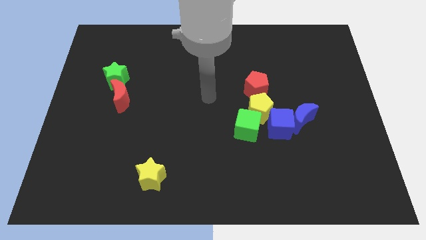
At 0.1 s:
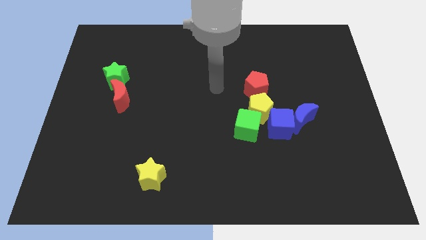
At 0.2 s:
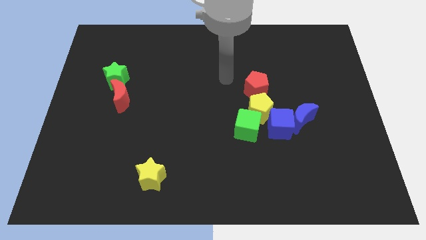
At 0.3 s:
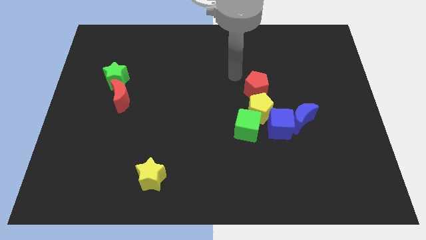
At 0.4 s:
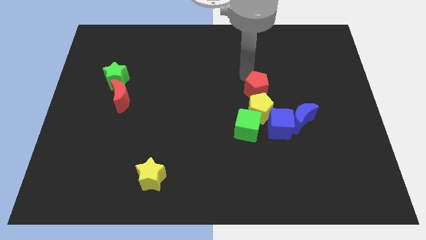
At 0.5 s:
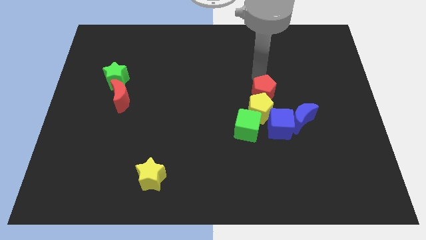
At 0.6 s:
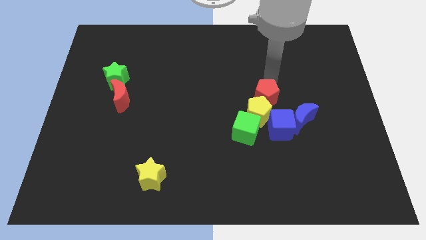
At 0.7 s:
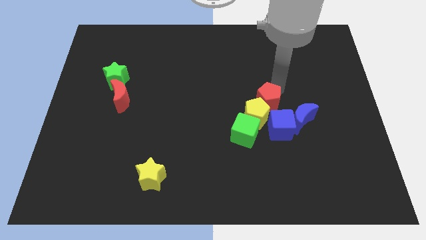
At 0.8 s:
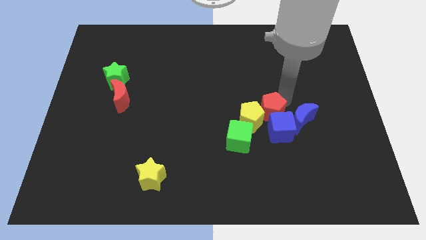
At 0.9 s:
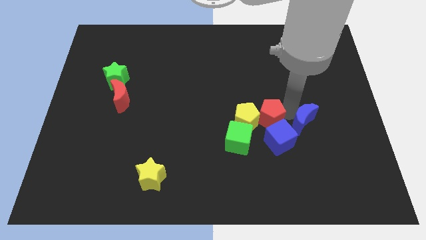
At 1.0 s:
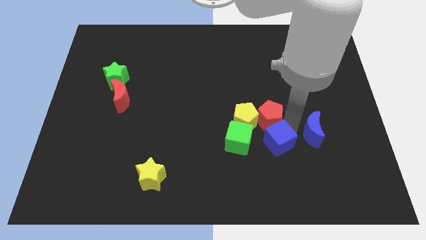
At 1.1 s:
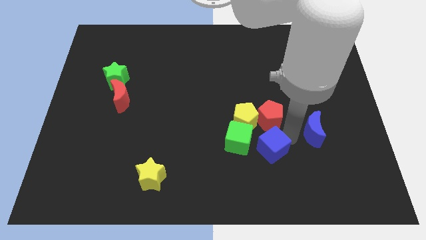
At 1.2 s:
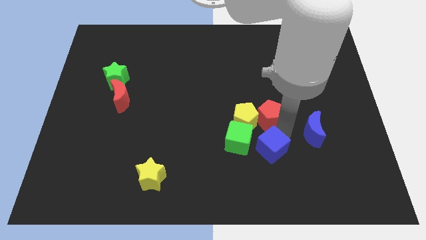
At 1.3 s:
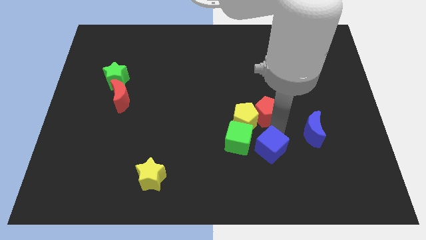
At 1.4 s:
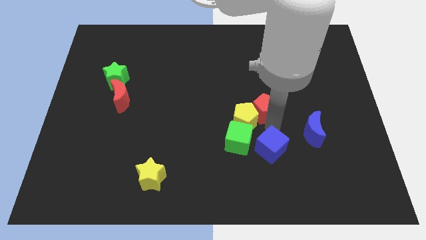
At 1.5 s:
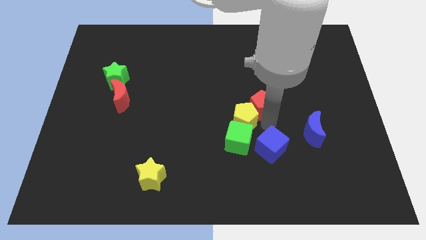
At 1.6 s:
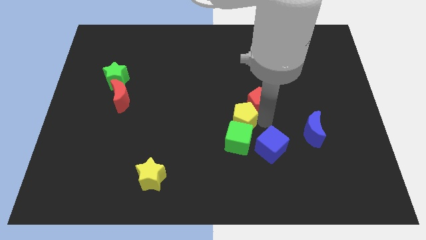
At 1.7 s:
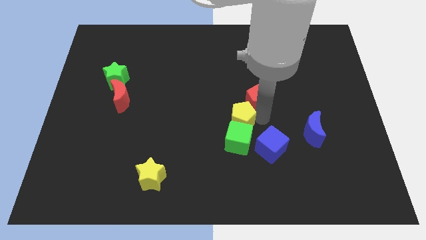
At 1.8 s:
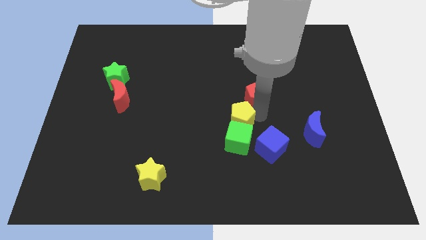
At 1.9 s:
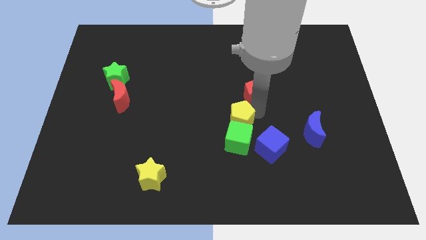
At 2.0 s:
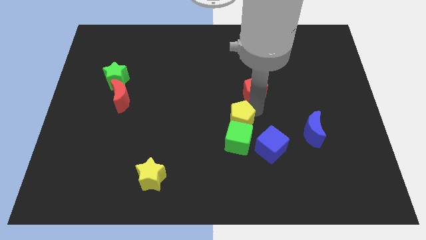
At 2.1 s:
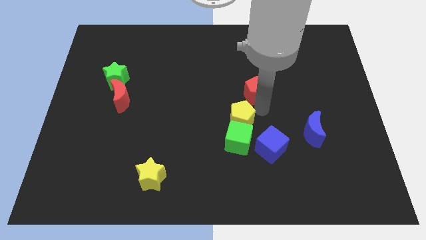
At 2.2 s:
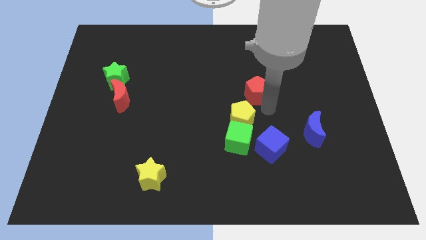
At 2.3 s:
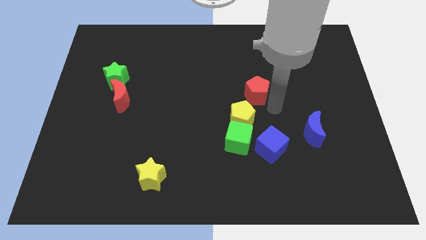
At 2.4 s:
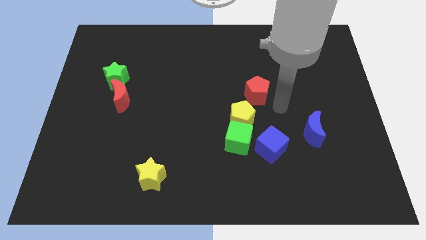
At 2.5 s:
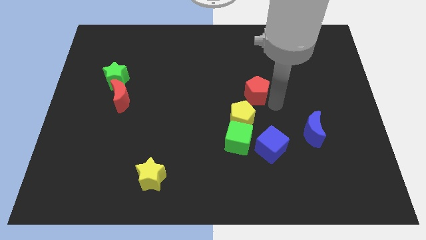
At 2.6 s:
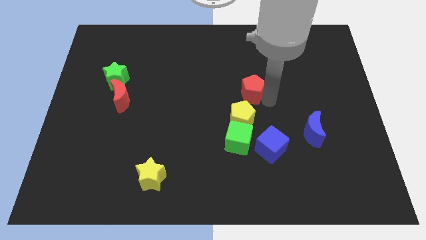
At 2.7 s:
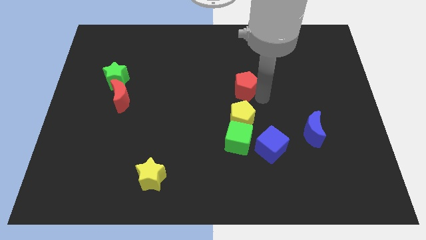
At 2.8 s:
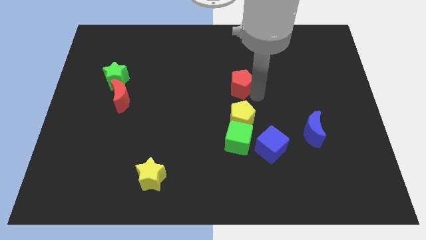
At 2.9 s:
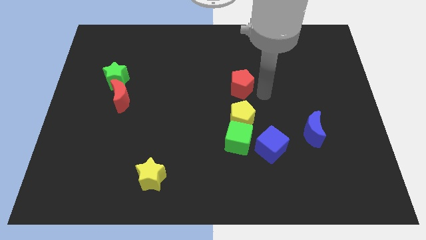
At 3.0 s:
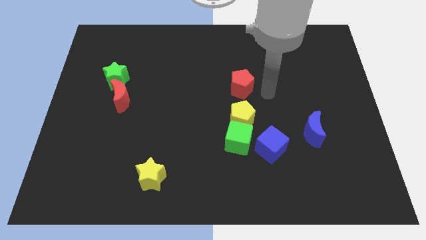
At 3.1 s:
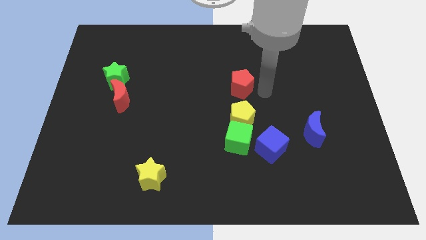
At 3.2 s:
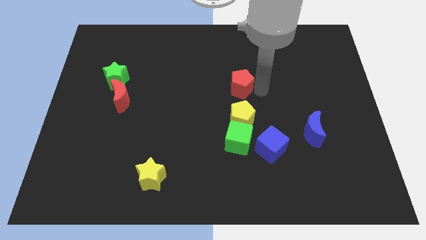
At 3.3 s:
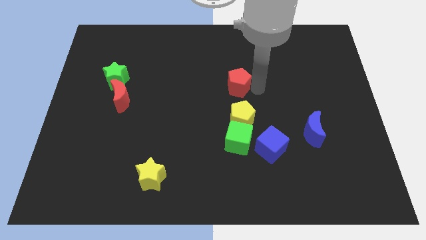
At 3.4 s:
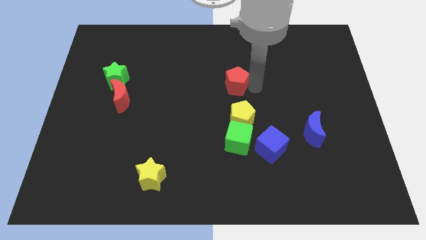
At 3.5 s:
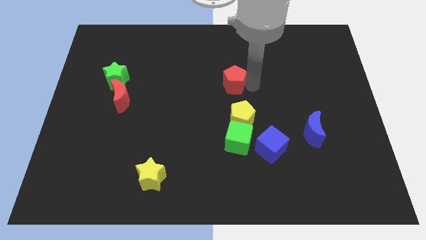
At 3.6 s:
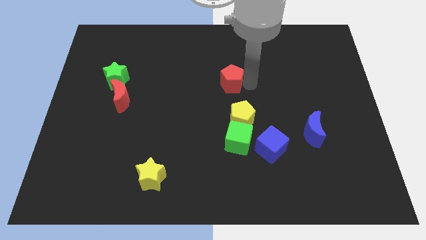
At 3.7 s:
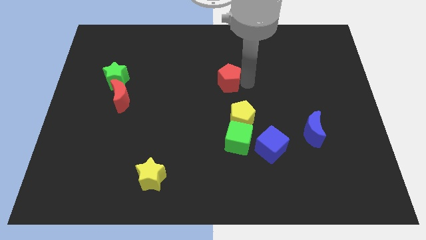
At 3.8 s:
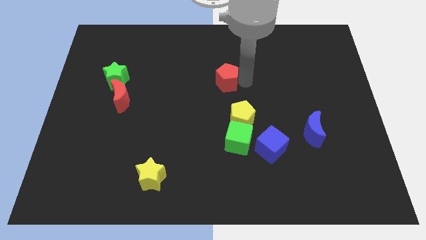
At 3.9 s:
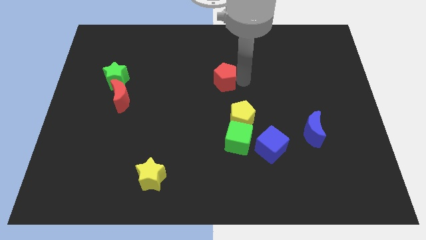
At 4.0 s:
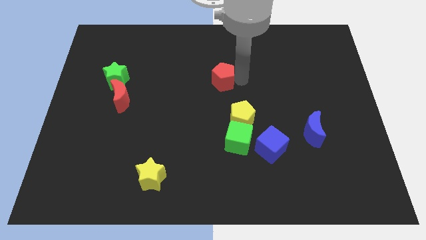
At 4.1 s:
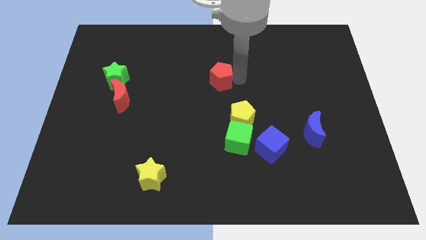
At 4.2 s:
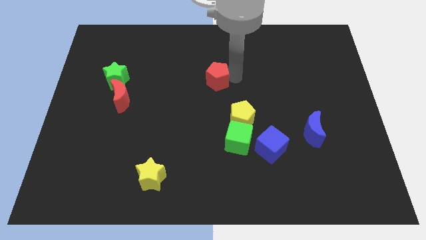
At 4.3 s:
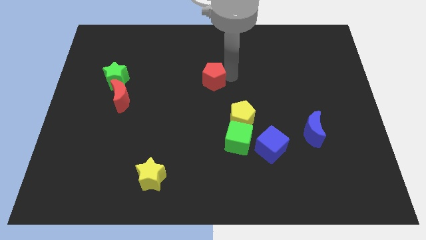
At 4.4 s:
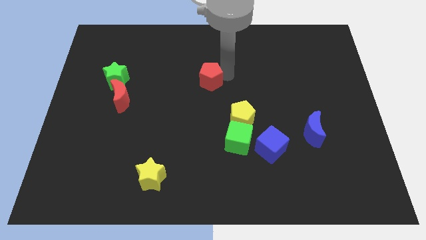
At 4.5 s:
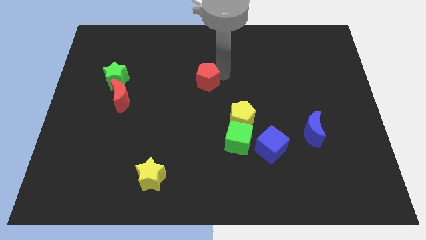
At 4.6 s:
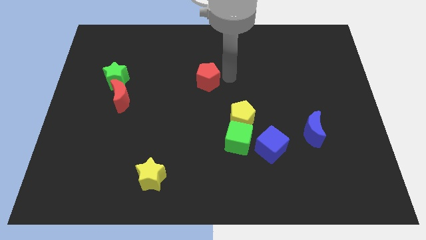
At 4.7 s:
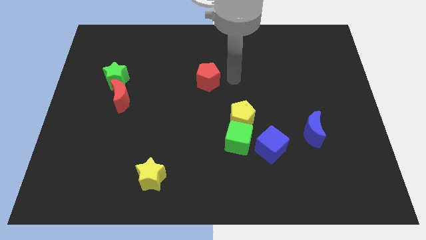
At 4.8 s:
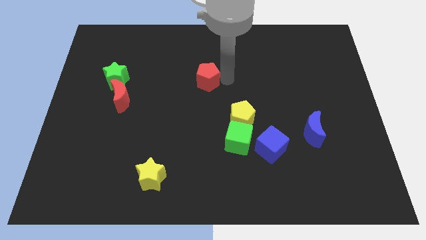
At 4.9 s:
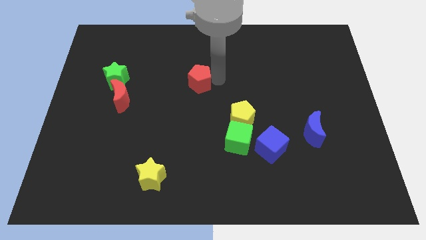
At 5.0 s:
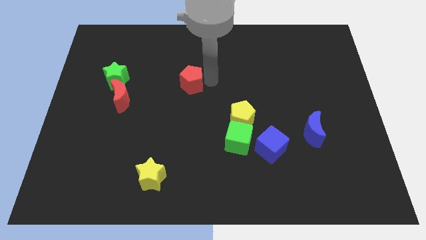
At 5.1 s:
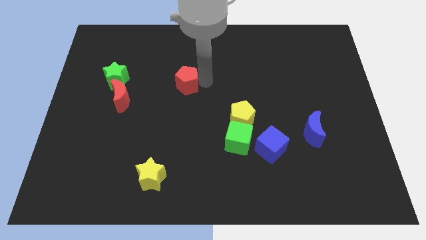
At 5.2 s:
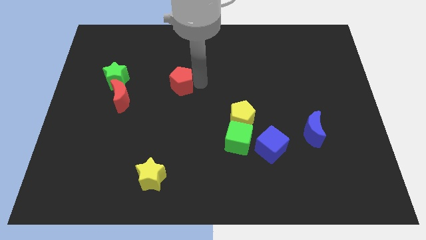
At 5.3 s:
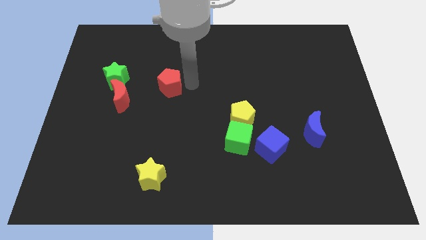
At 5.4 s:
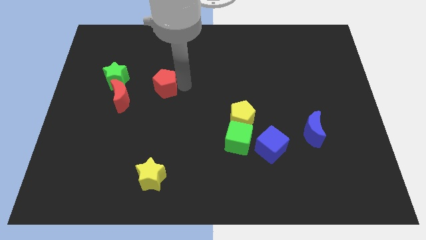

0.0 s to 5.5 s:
move the red pentagon diagonally up and to the right of the red moon

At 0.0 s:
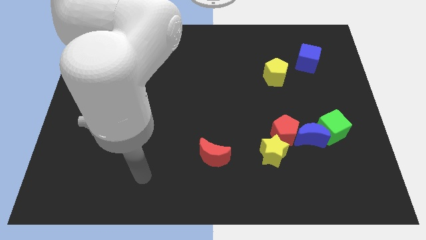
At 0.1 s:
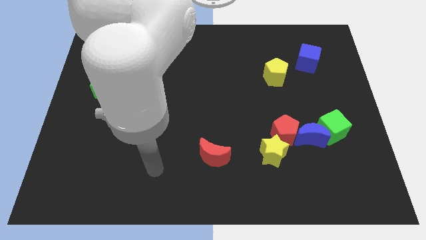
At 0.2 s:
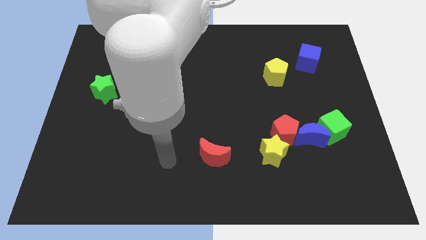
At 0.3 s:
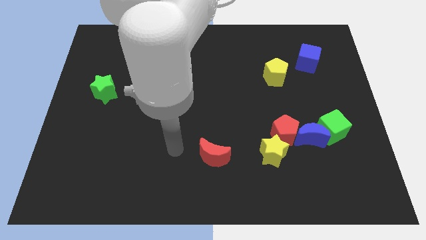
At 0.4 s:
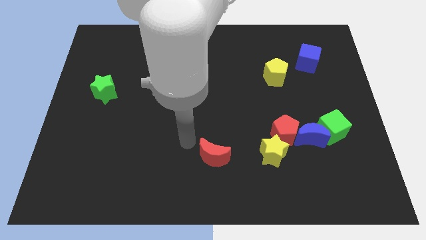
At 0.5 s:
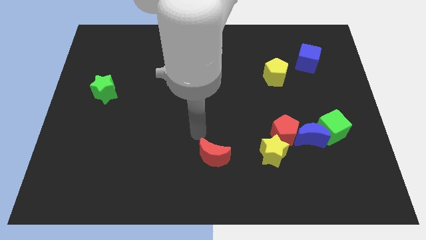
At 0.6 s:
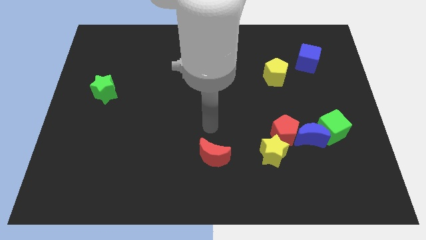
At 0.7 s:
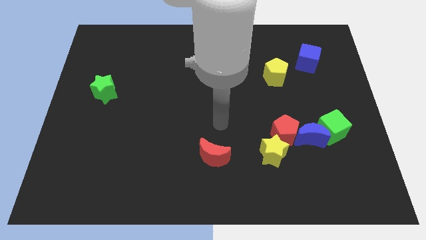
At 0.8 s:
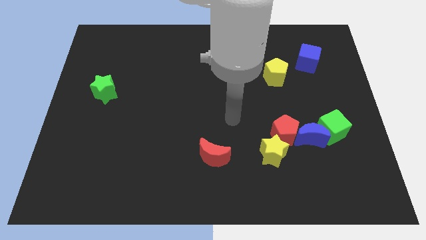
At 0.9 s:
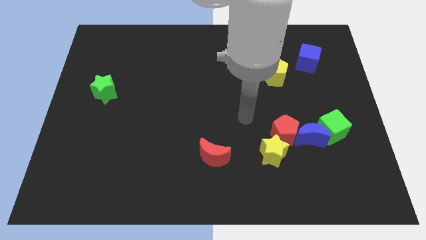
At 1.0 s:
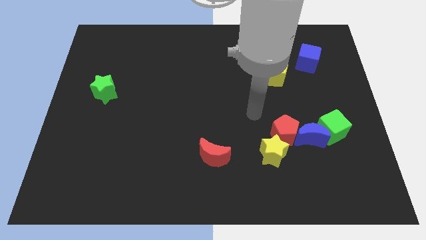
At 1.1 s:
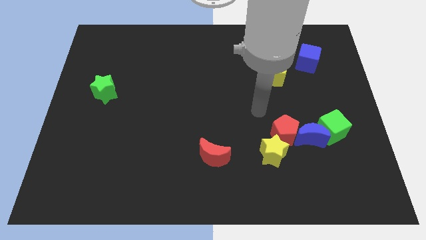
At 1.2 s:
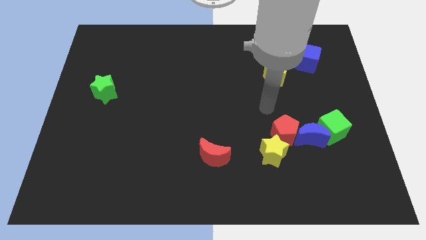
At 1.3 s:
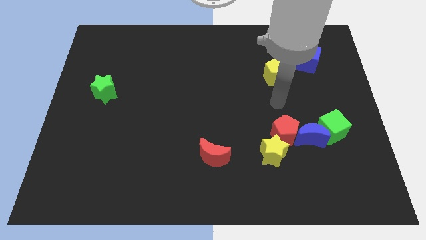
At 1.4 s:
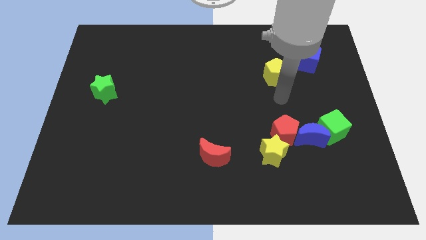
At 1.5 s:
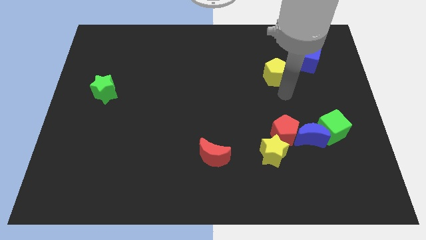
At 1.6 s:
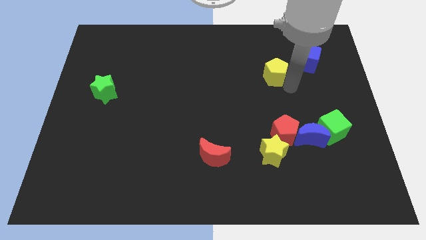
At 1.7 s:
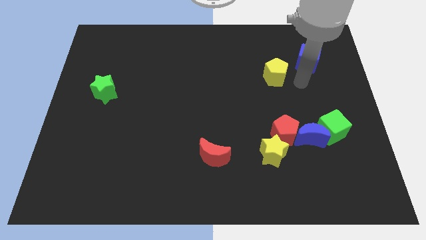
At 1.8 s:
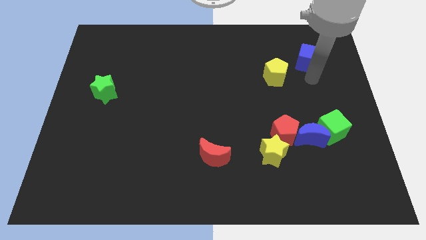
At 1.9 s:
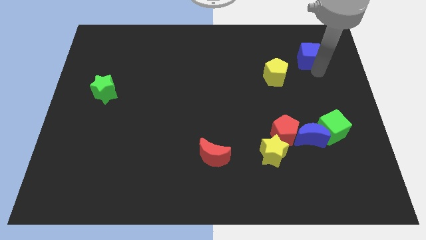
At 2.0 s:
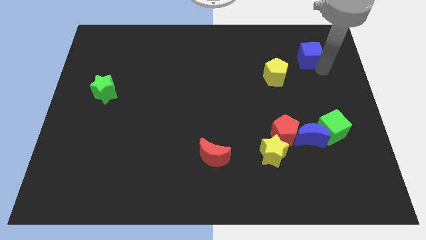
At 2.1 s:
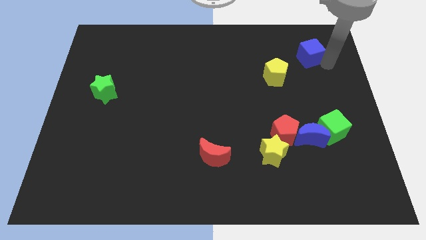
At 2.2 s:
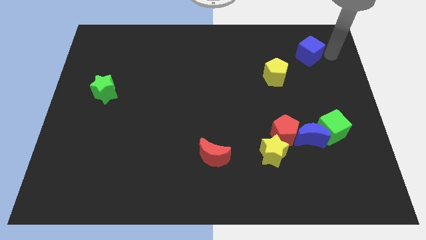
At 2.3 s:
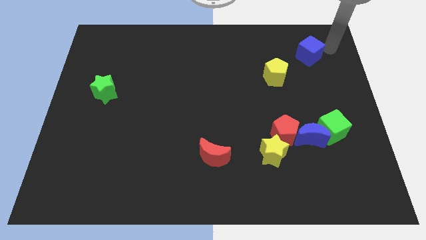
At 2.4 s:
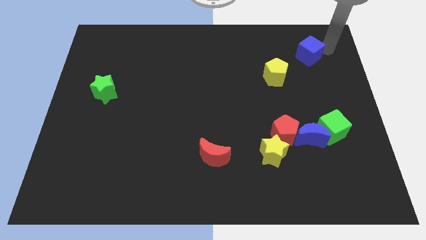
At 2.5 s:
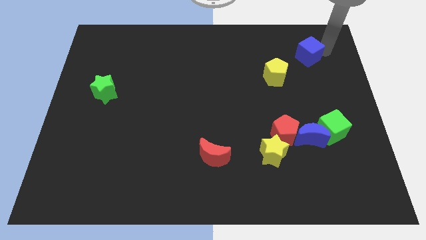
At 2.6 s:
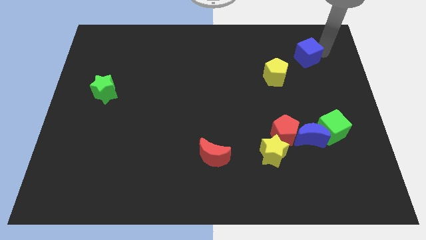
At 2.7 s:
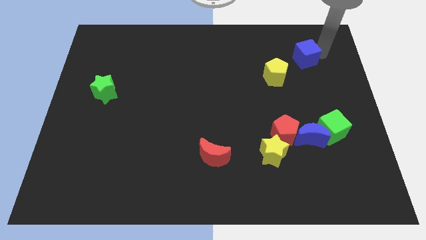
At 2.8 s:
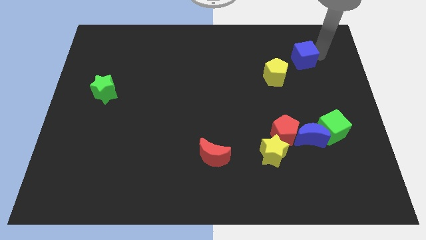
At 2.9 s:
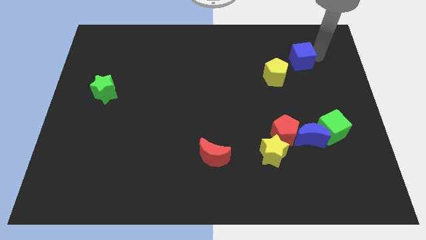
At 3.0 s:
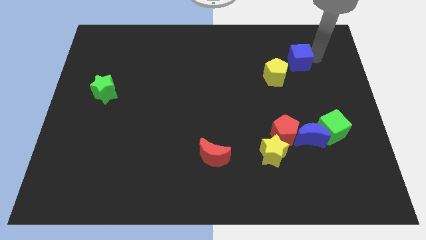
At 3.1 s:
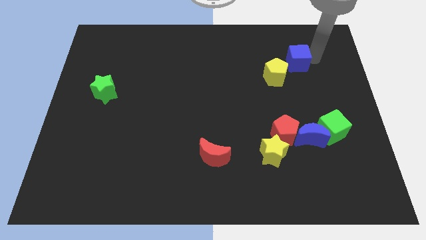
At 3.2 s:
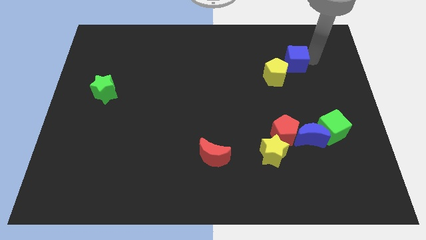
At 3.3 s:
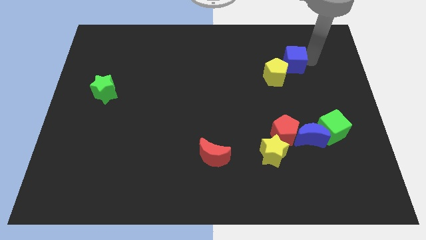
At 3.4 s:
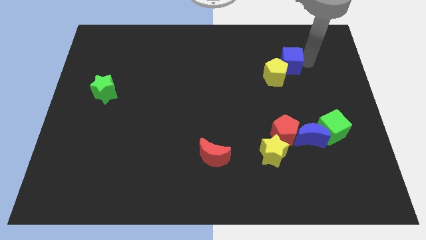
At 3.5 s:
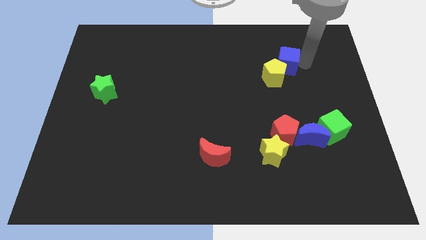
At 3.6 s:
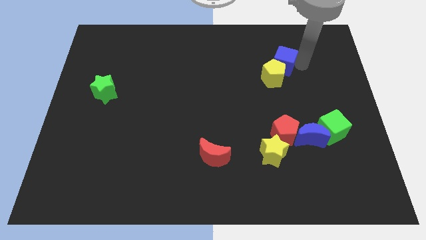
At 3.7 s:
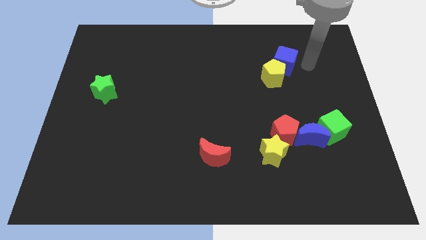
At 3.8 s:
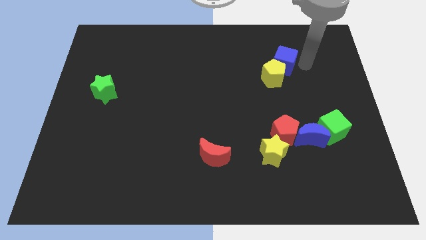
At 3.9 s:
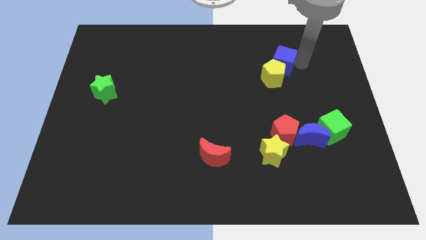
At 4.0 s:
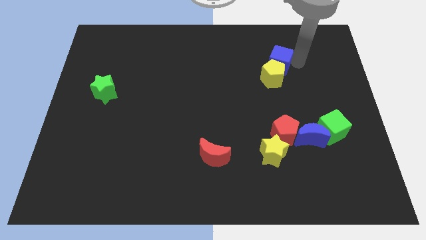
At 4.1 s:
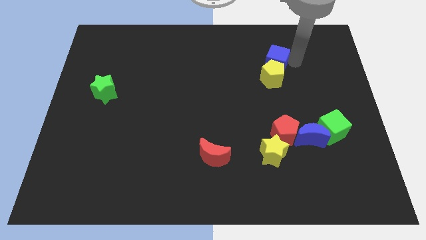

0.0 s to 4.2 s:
slide the blue cube to the top left of the yellow pentagon
